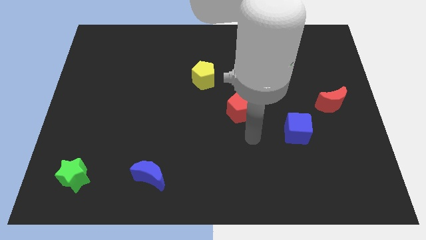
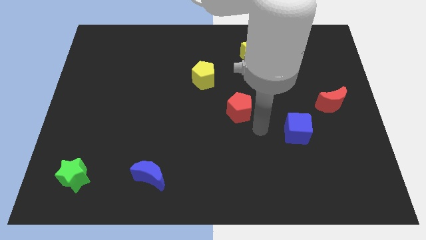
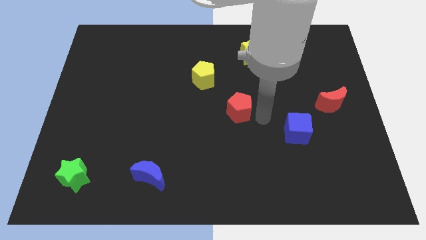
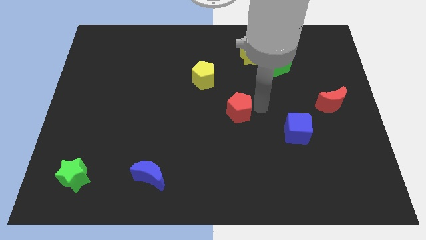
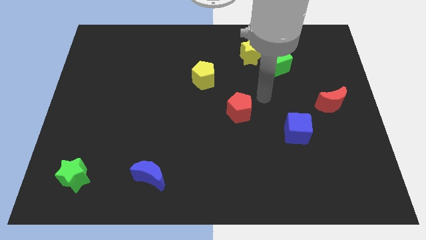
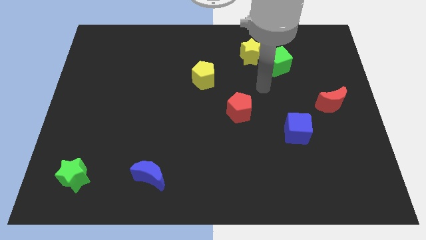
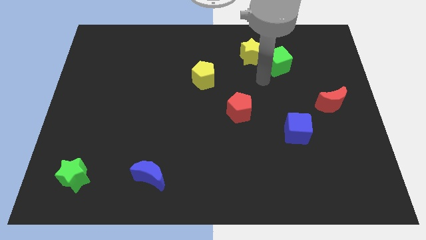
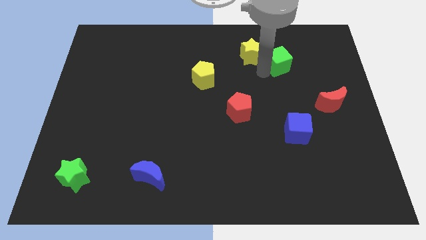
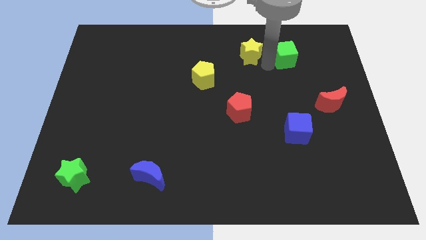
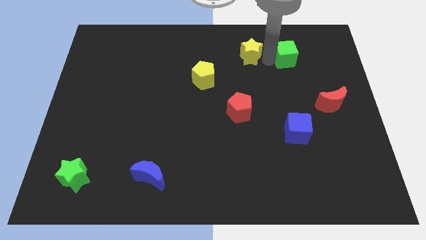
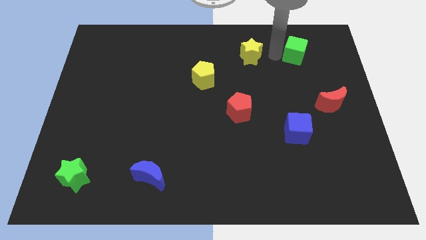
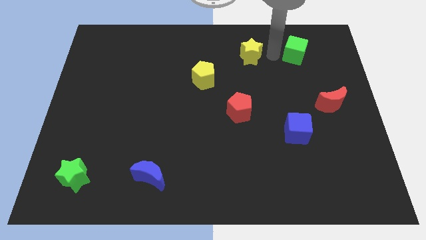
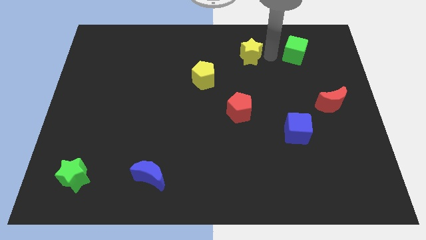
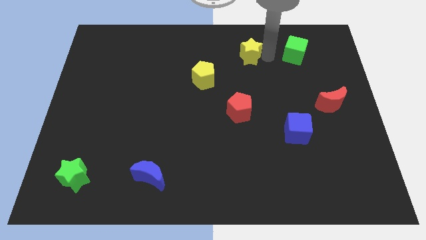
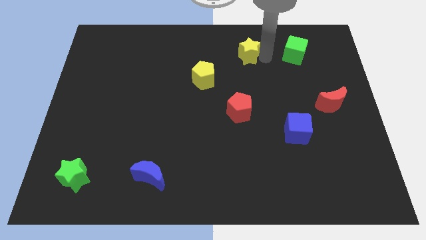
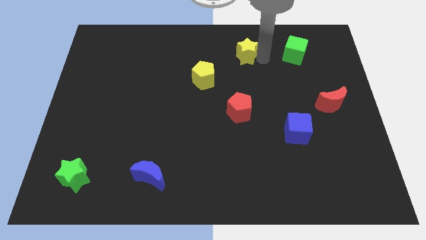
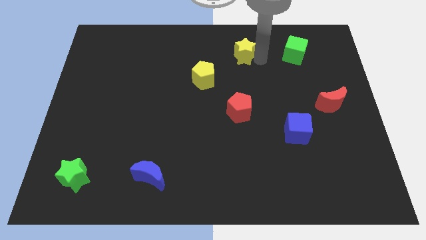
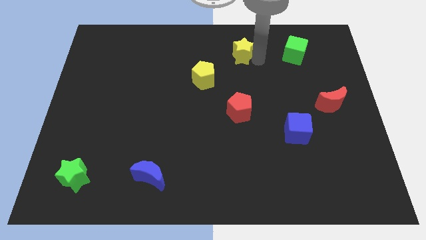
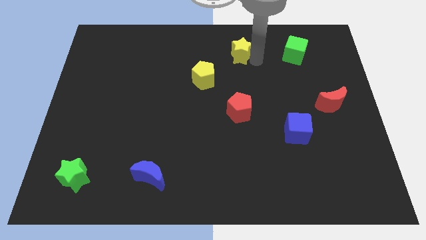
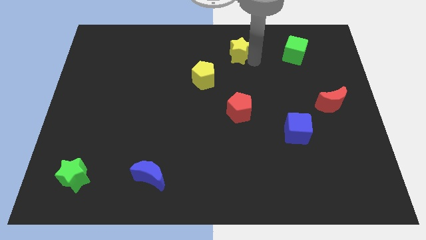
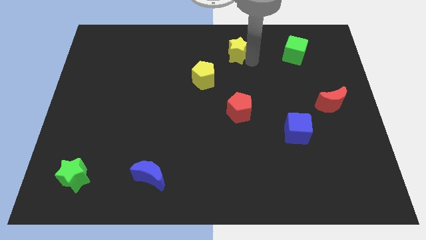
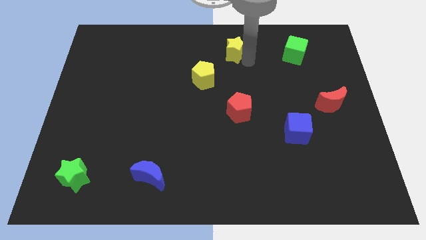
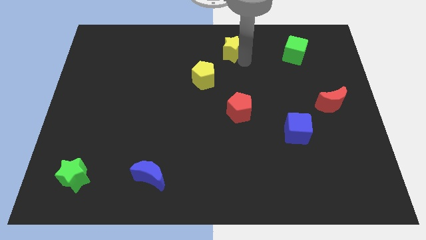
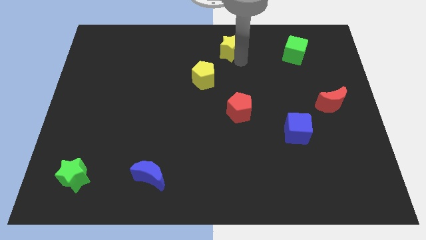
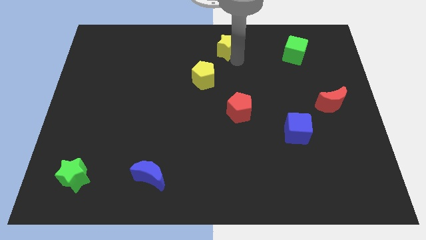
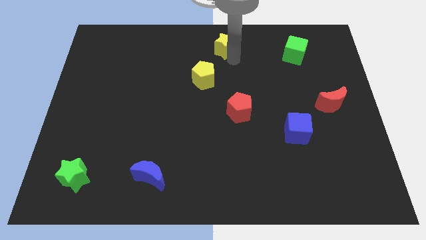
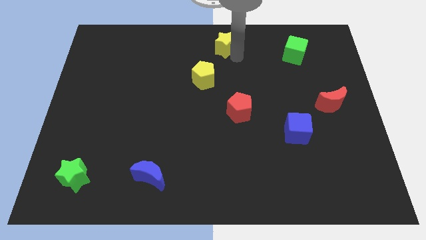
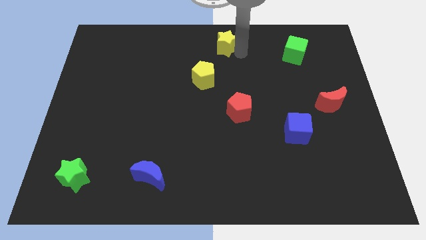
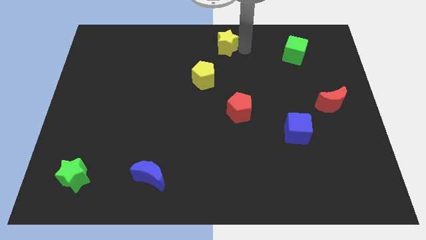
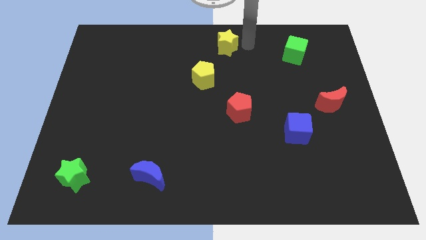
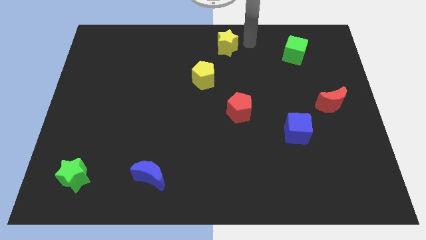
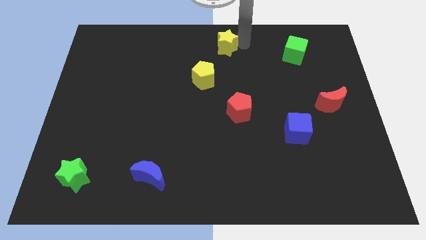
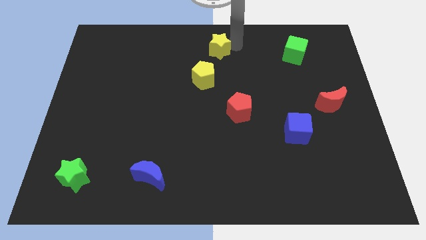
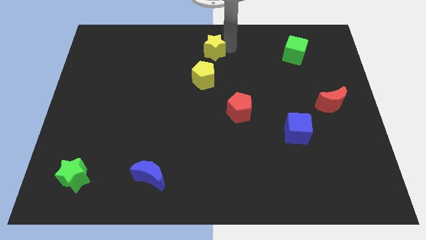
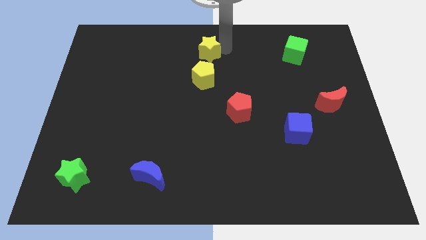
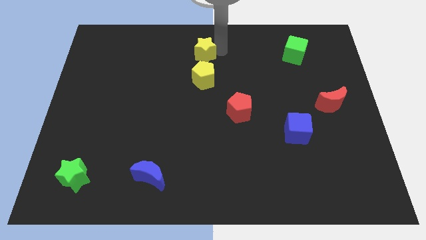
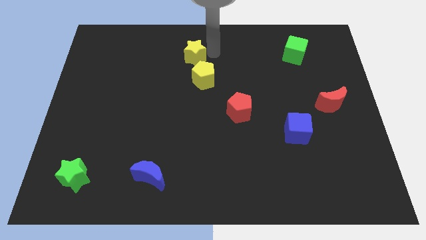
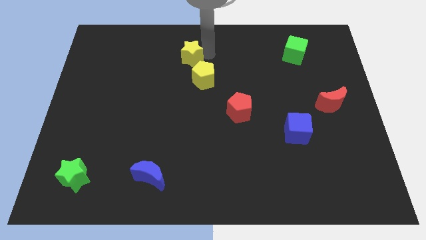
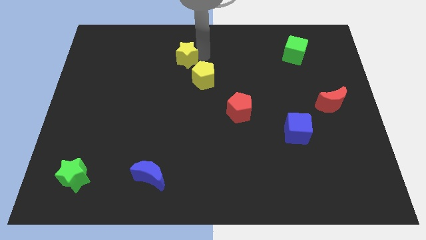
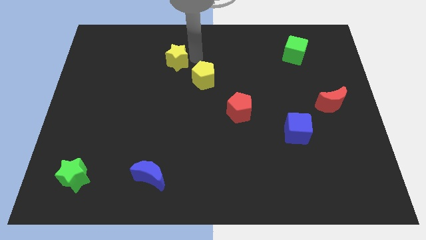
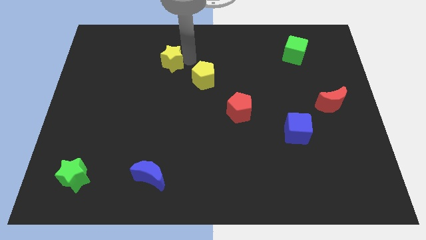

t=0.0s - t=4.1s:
push the yellow star to the left

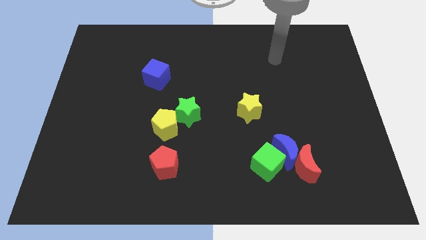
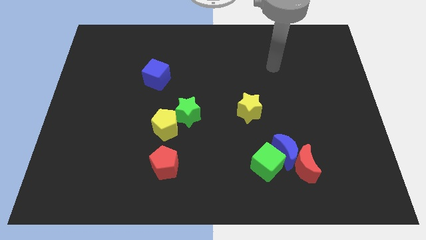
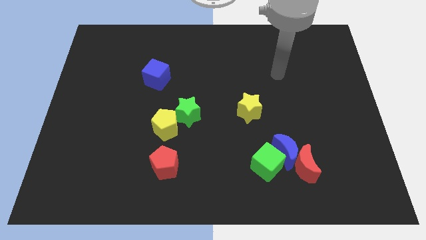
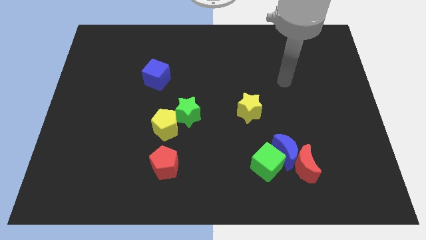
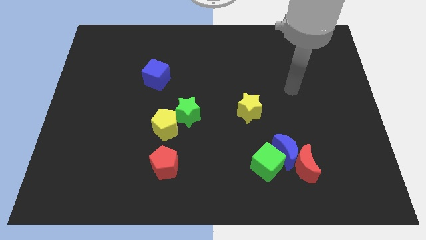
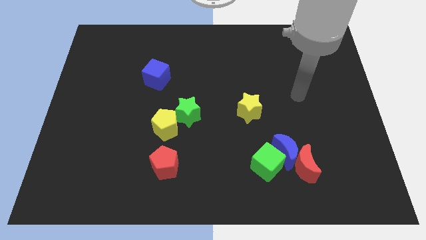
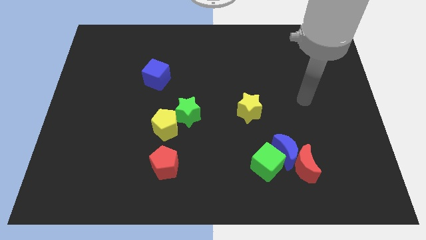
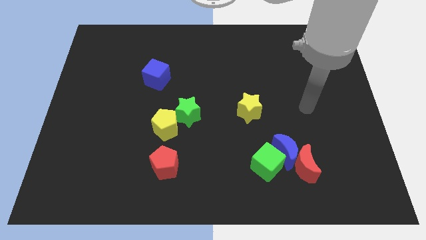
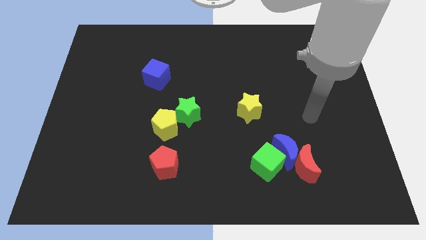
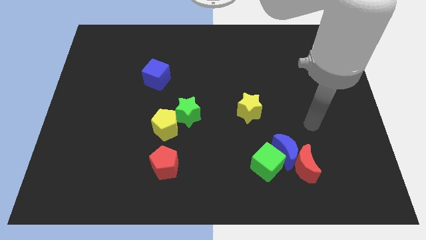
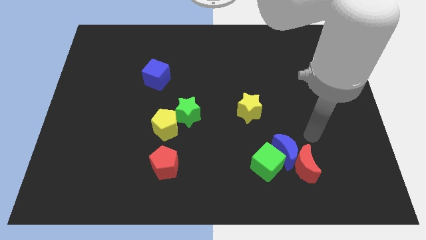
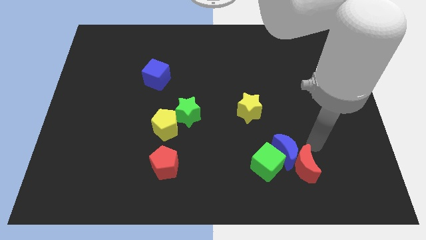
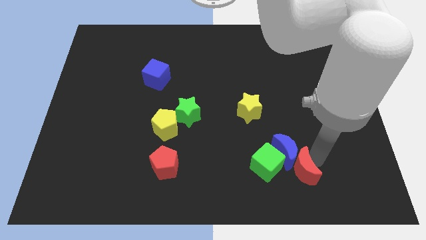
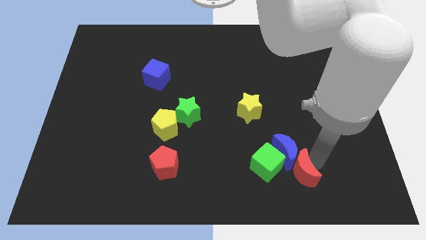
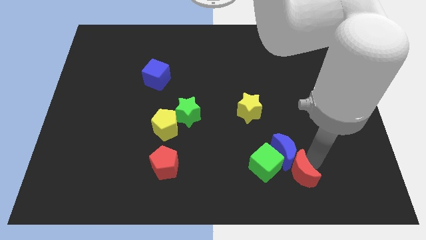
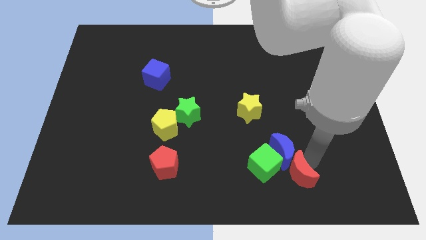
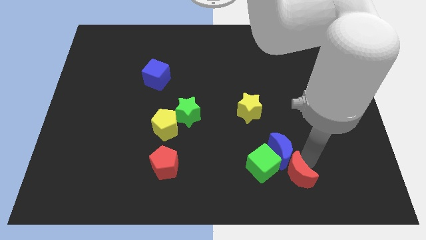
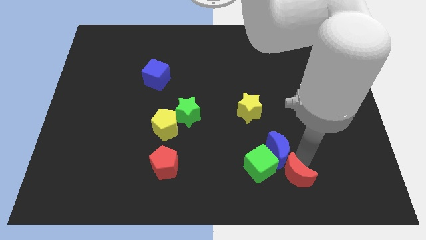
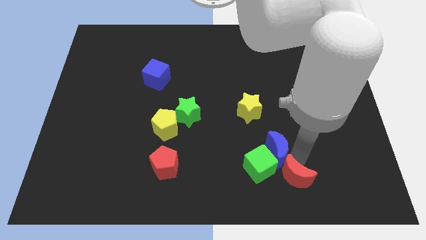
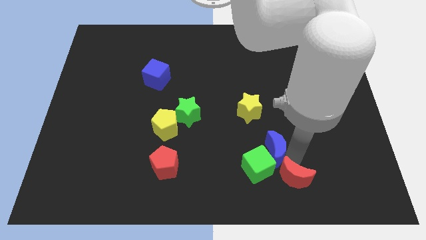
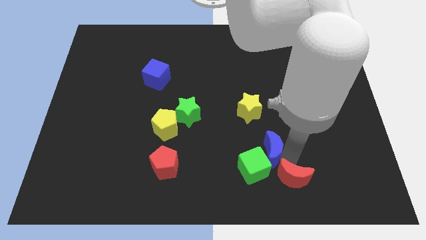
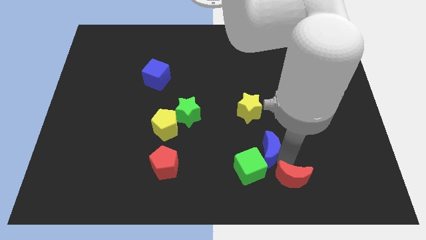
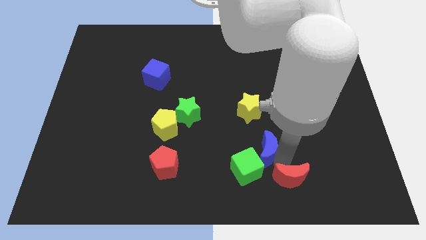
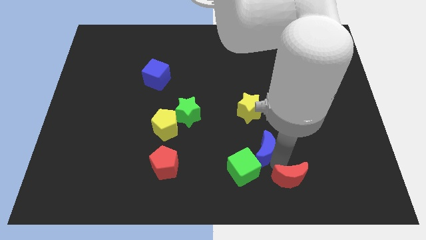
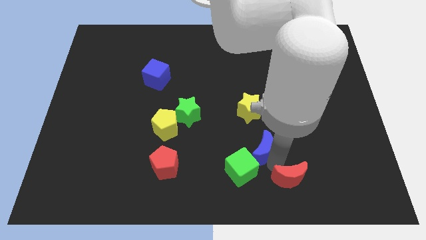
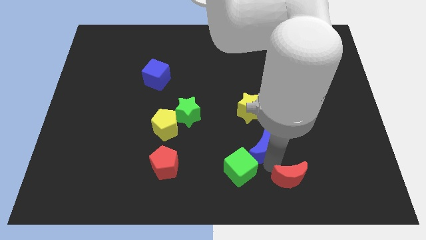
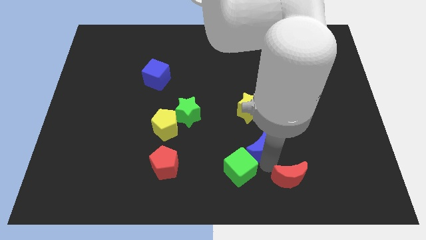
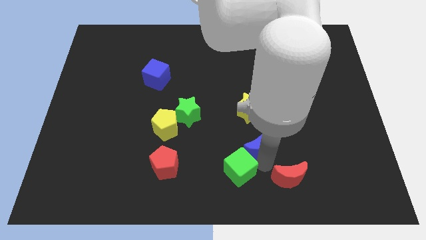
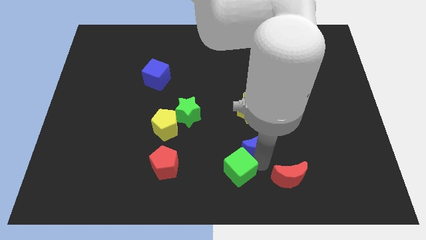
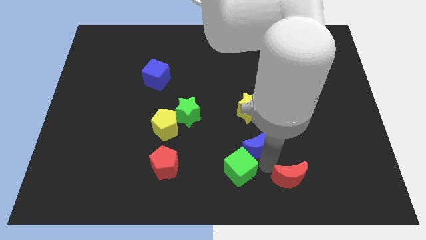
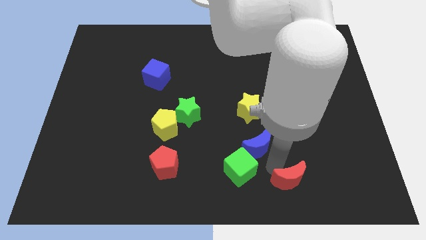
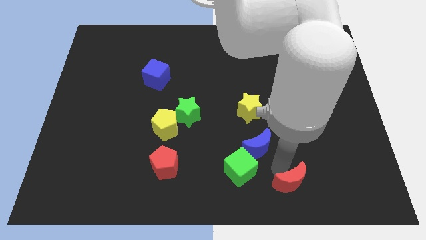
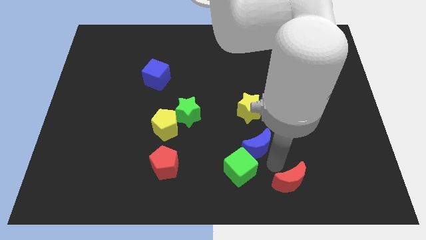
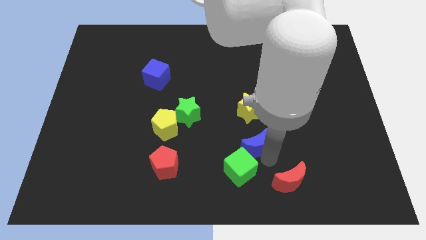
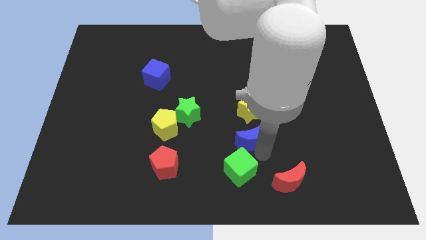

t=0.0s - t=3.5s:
slightly slide the blue moon diagonally up and left

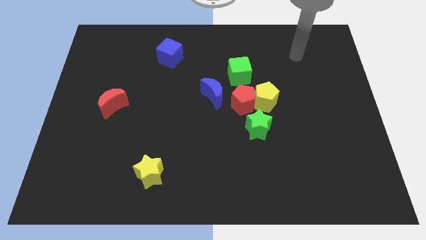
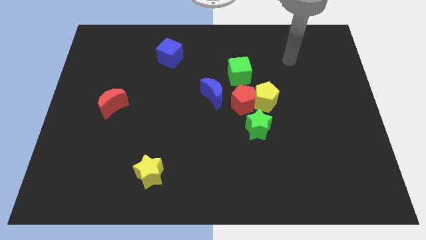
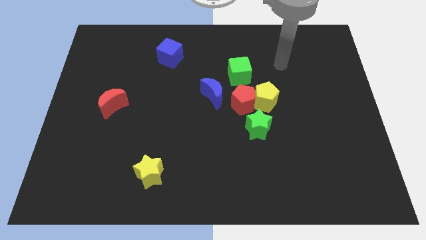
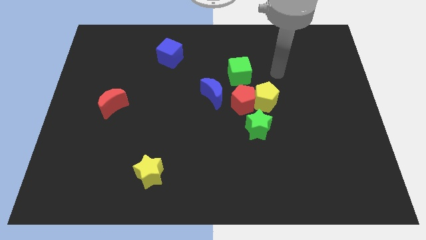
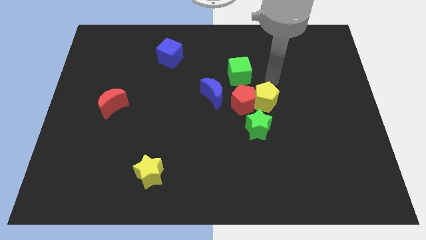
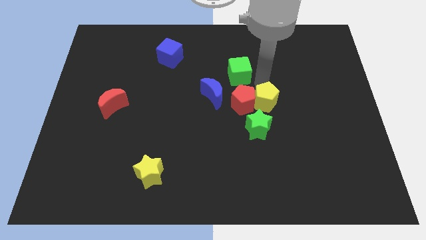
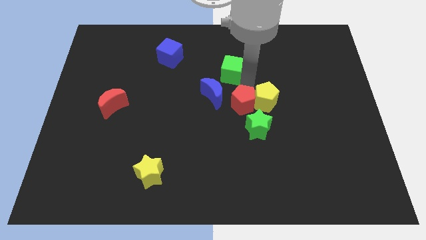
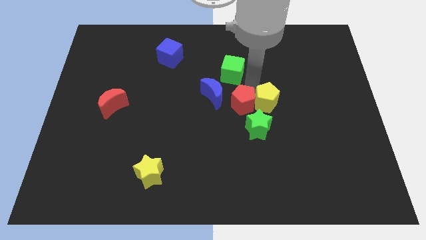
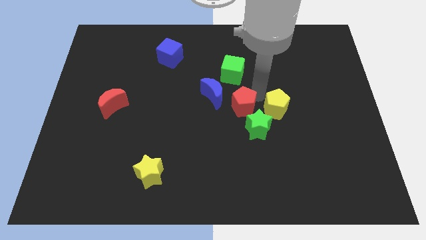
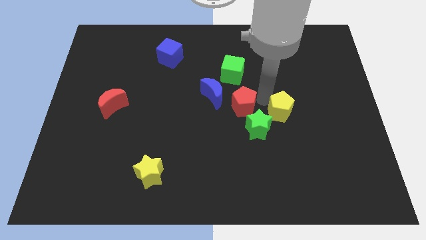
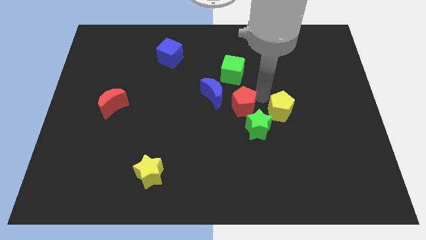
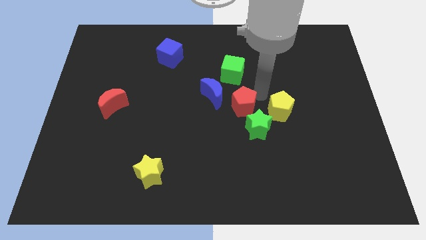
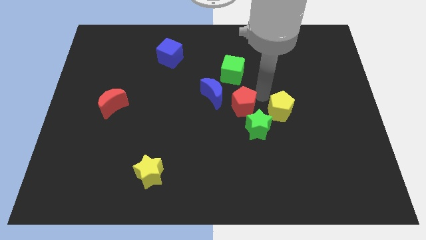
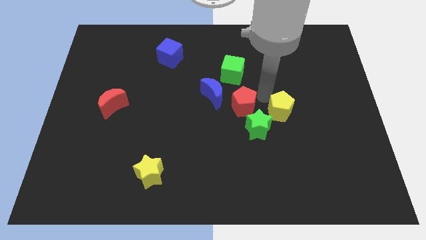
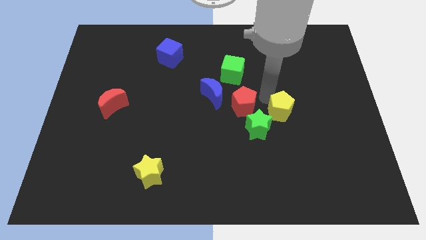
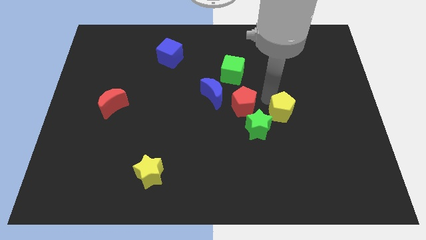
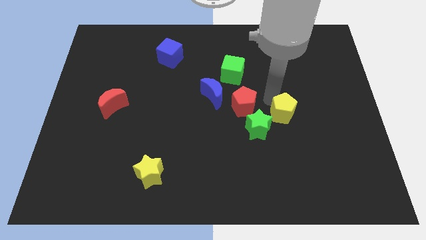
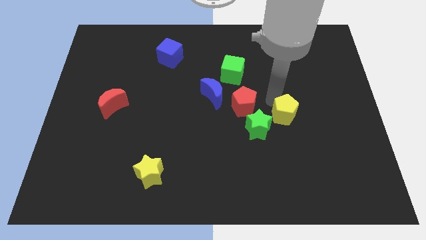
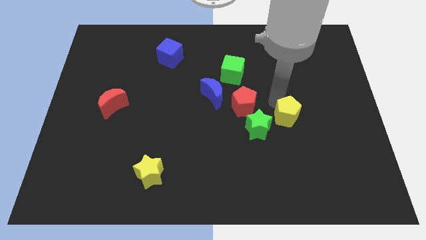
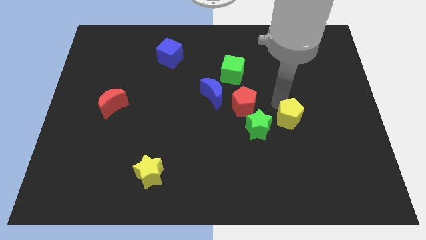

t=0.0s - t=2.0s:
slide the yellow pentagon a little bit down and to the right
